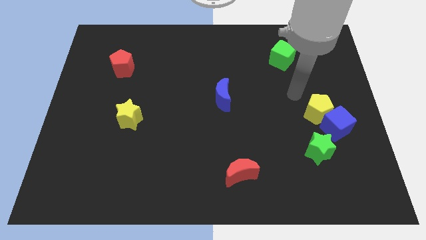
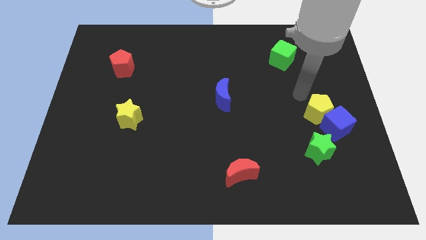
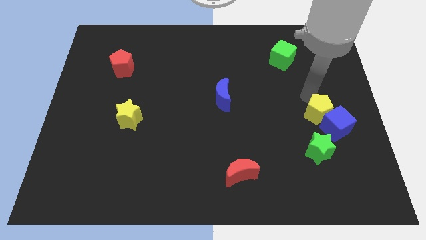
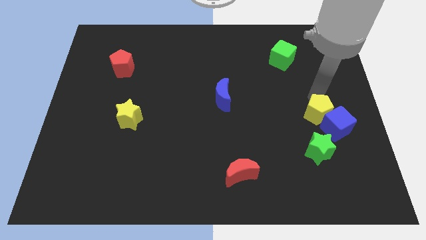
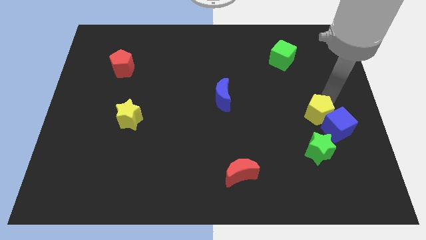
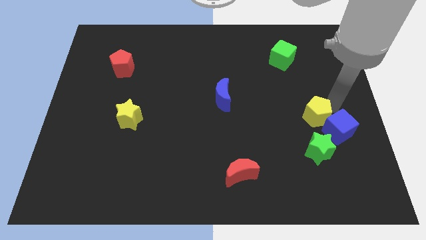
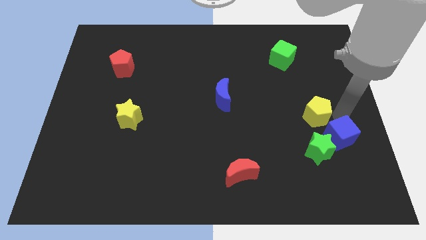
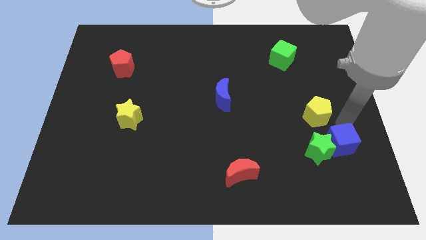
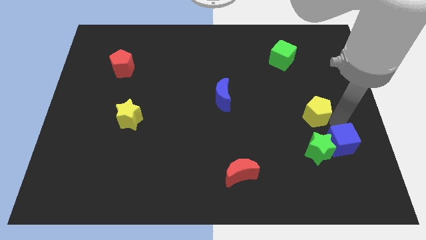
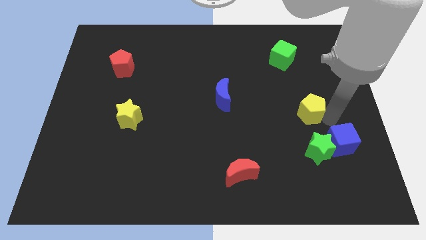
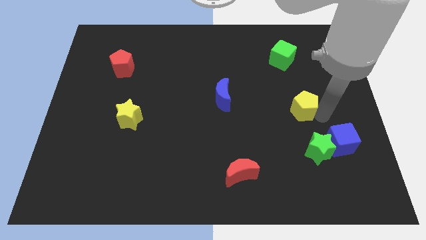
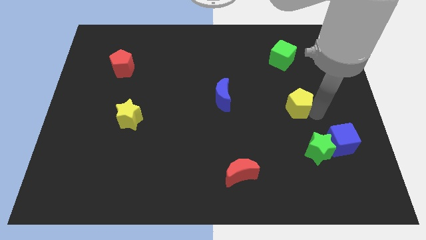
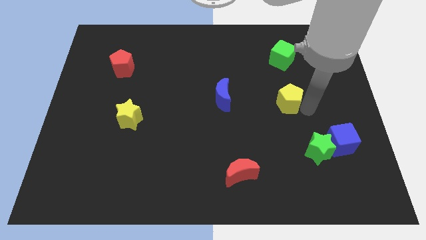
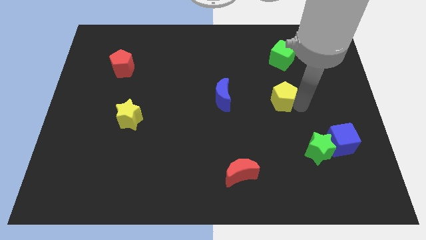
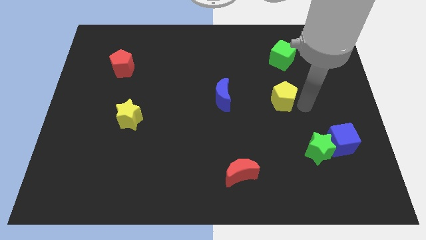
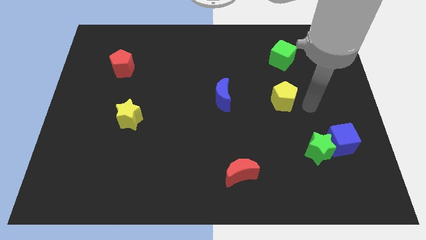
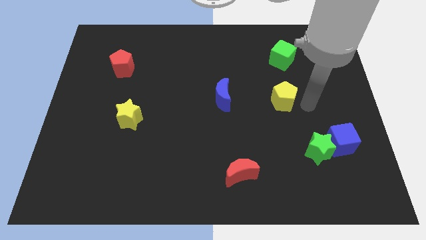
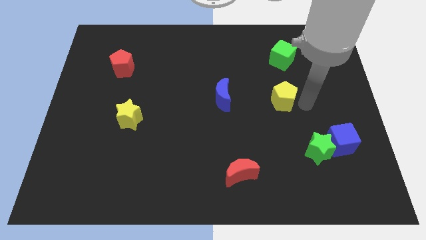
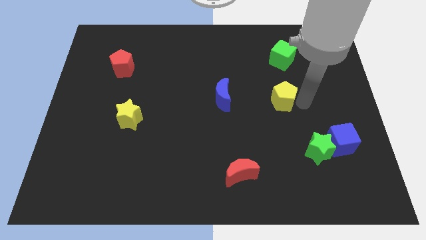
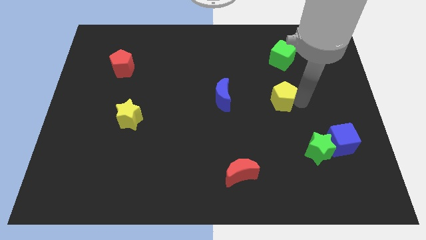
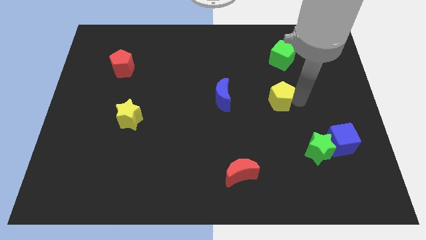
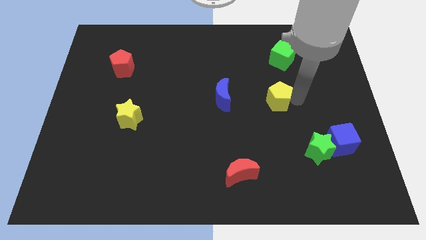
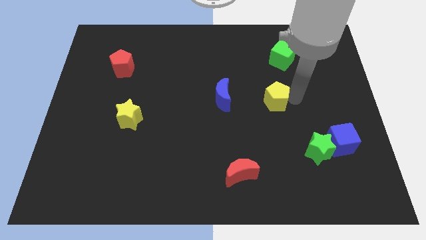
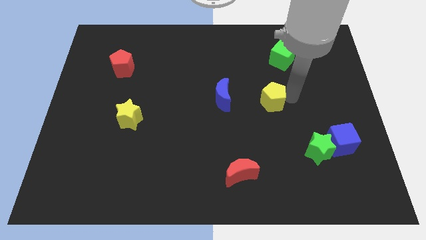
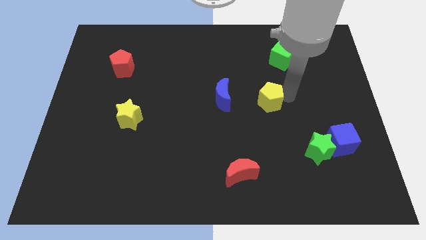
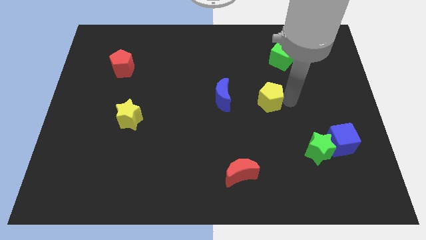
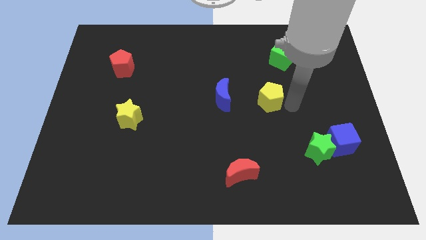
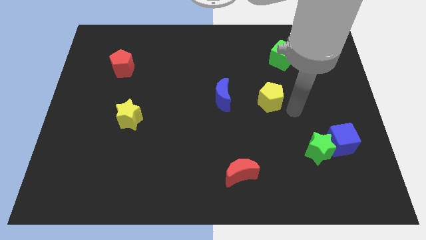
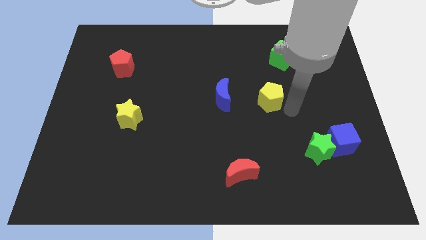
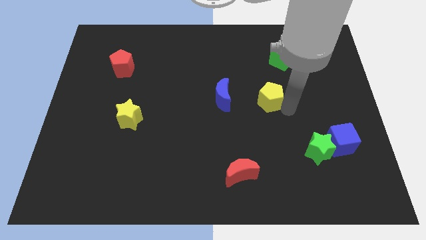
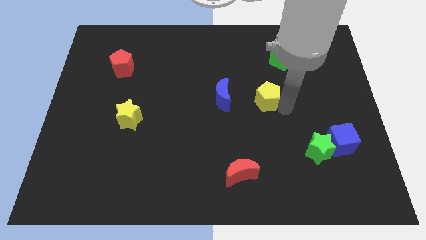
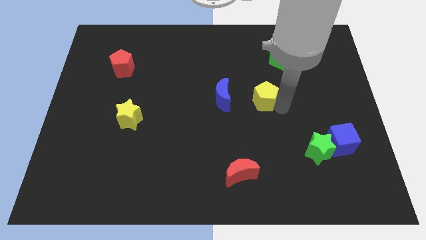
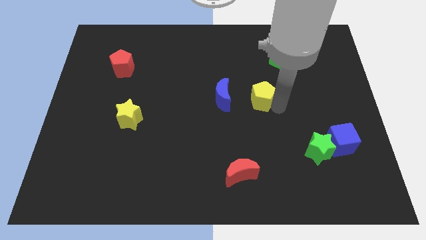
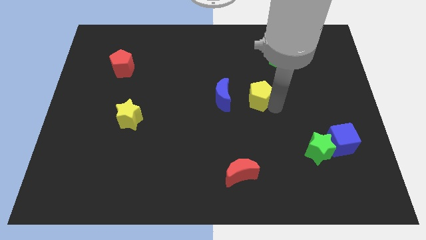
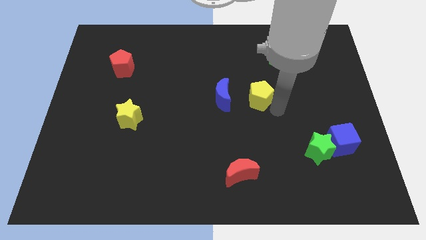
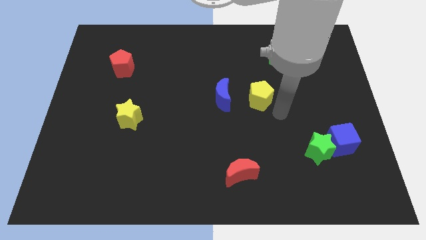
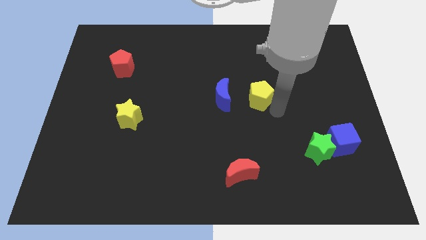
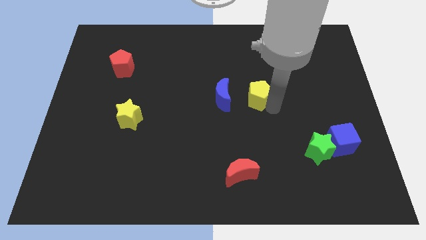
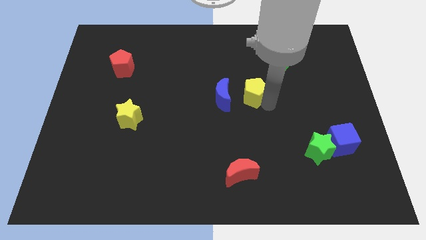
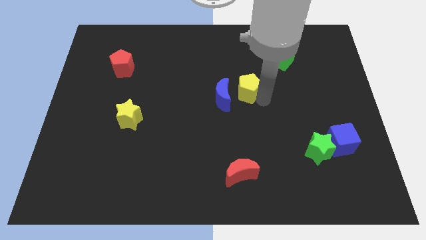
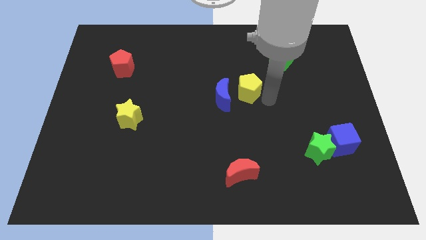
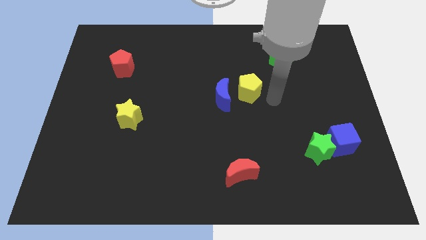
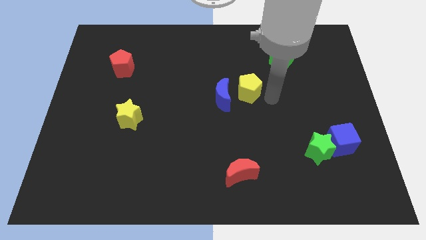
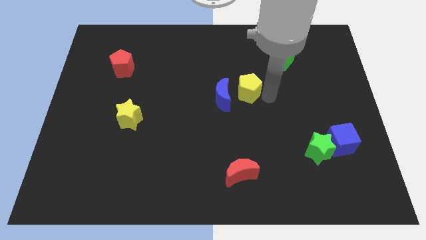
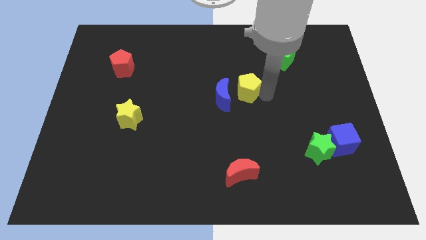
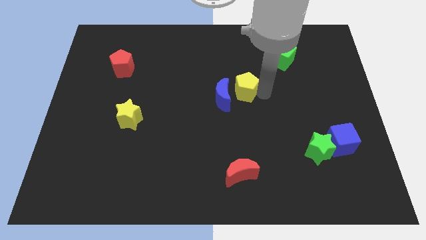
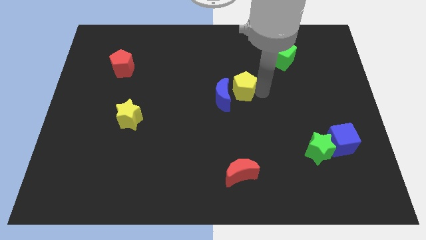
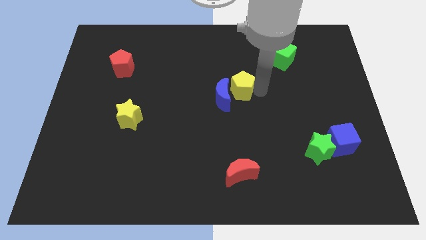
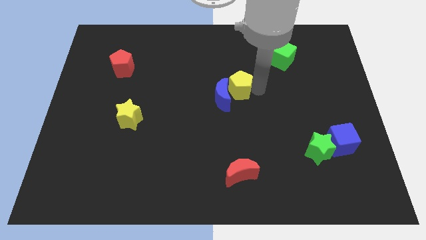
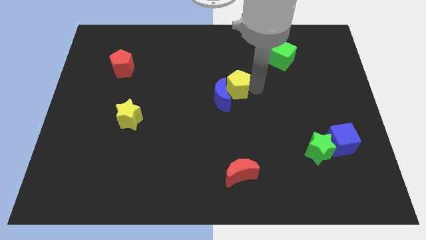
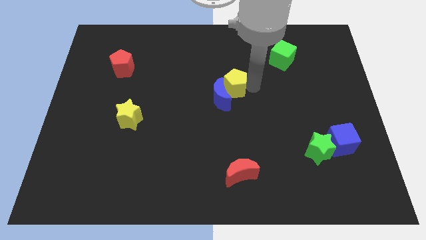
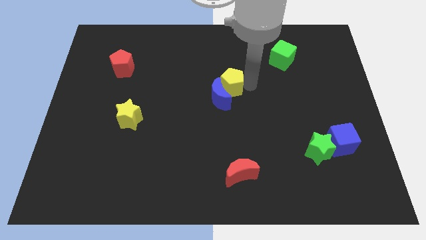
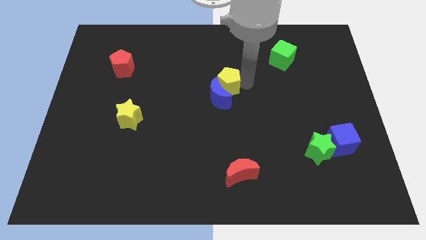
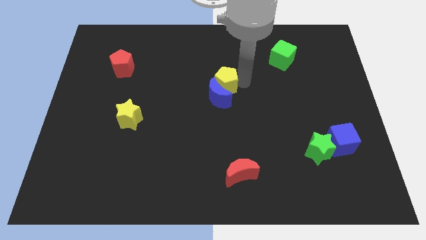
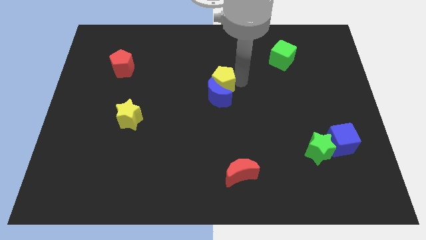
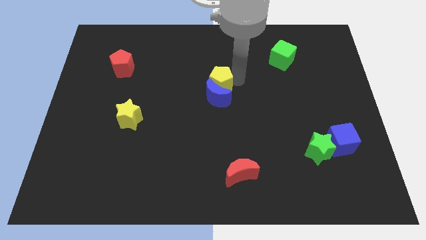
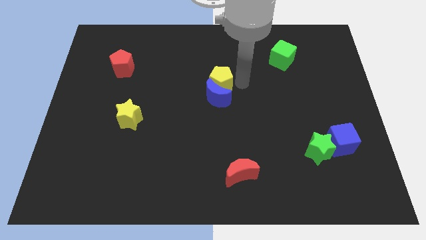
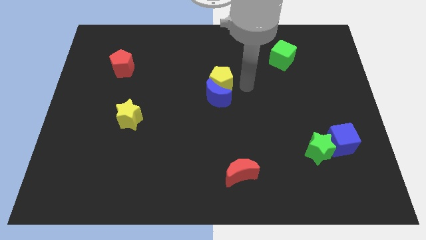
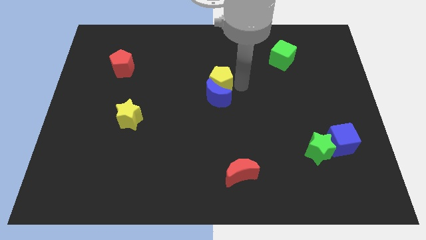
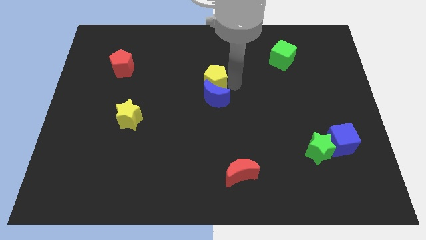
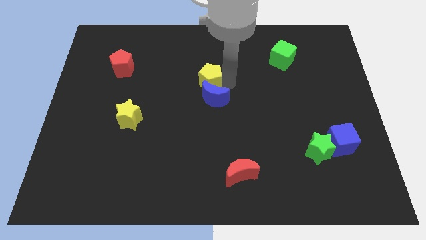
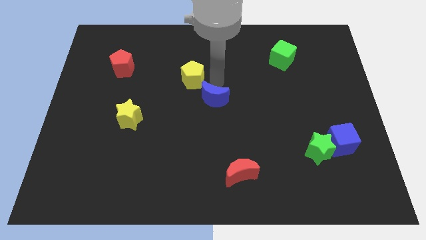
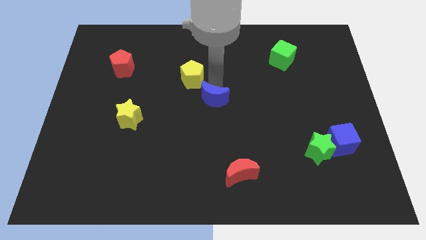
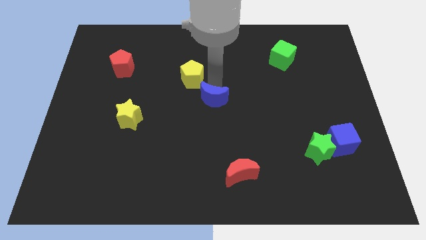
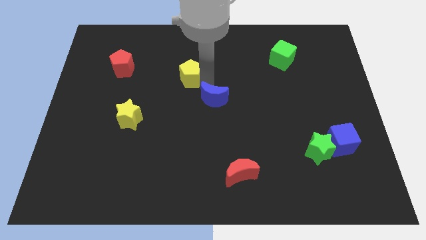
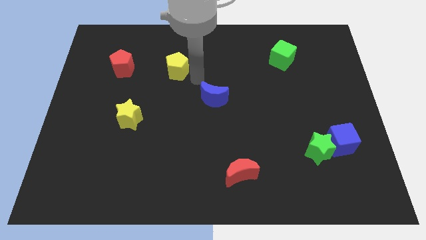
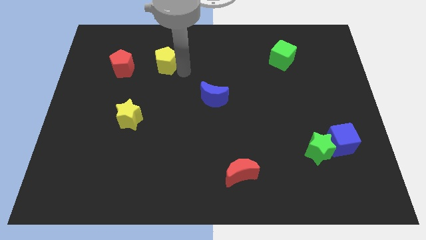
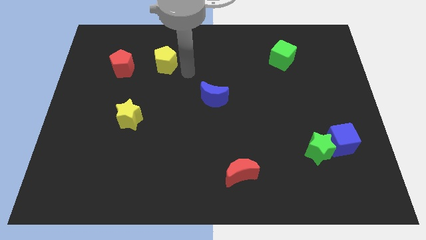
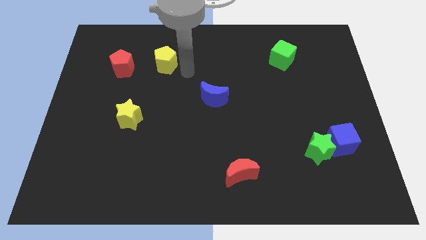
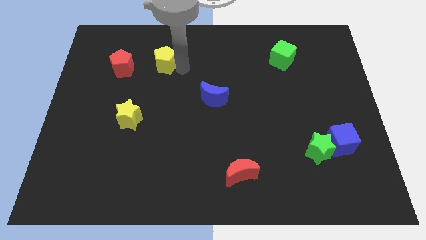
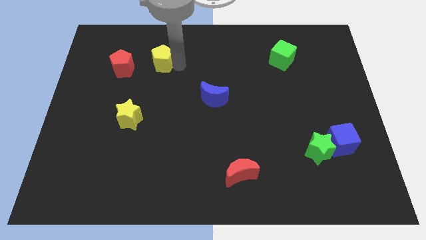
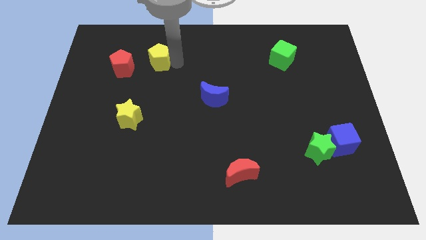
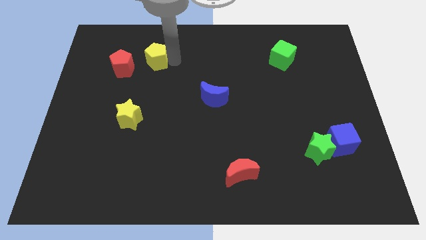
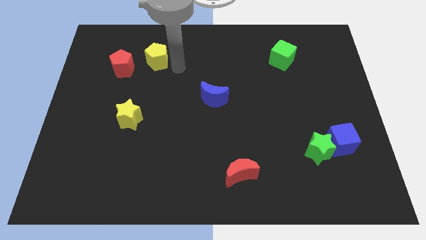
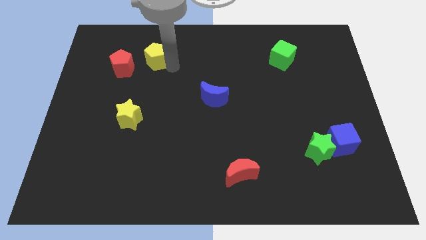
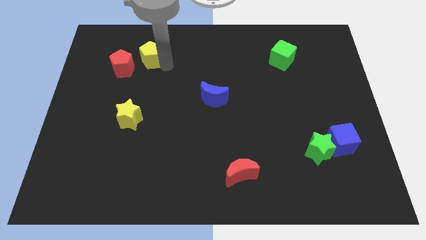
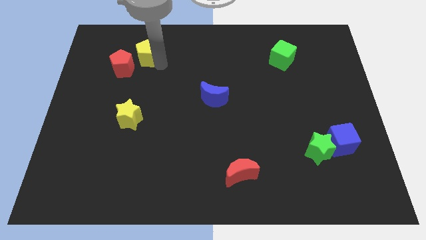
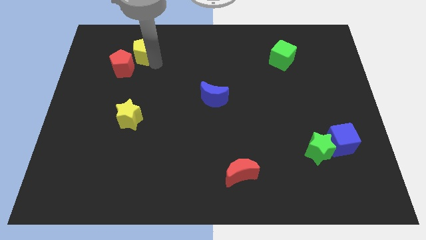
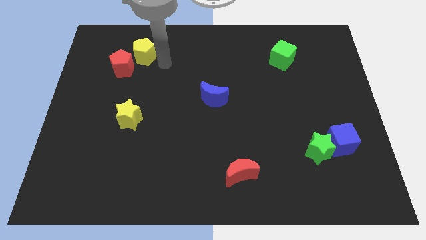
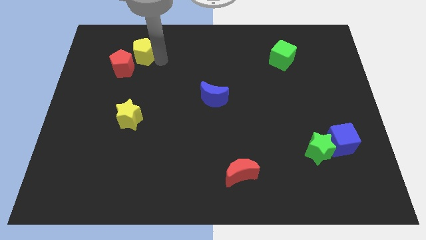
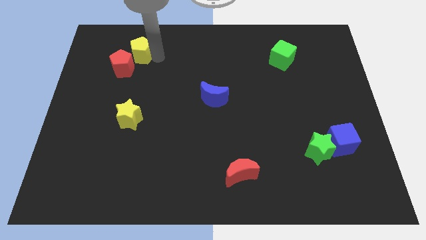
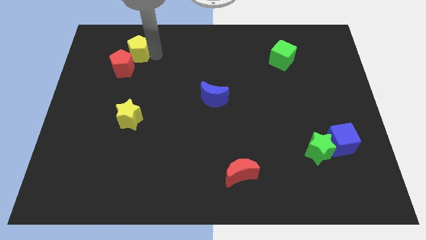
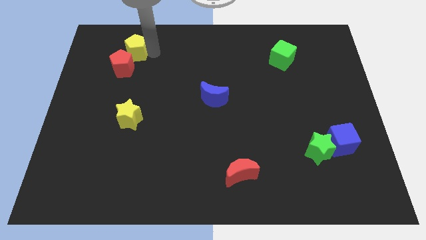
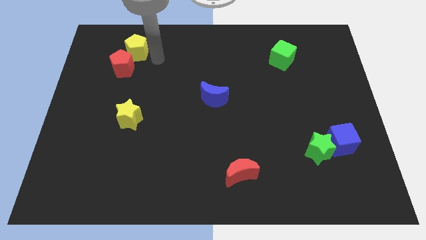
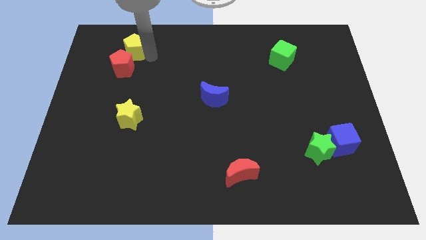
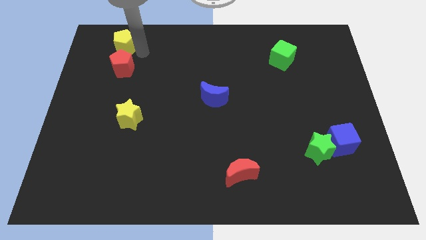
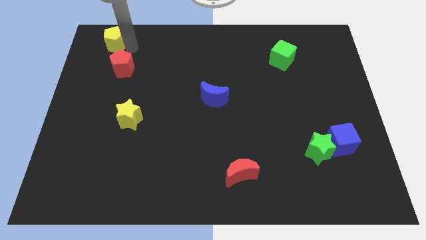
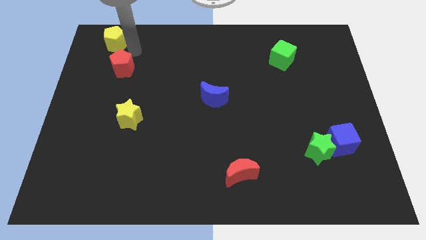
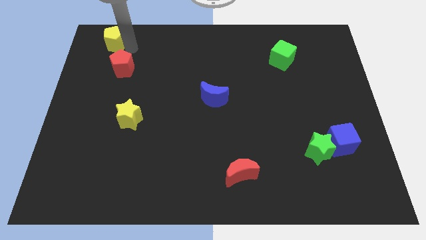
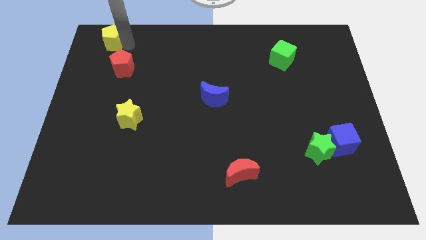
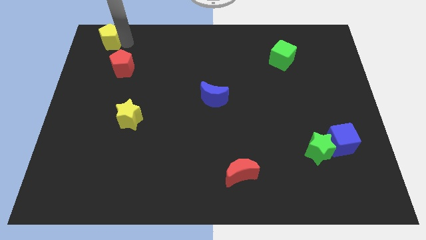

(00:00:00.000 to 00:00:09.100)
put the yellow pentagon to the top left of the board
